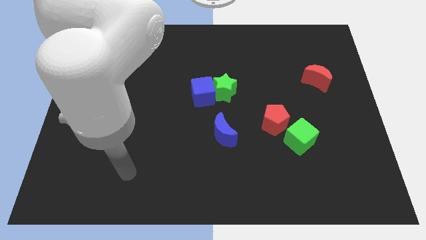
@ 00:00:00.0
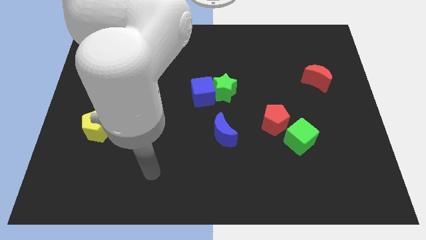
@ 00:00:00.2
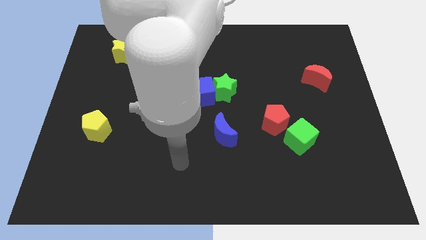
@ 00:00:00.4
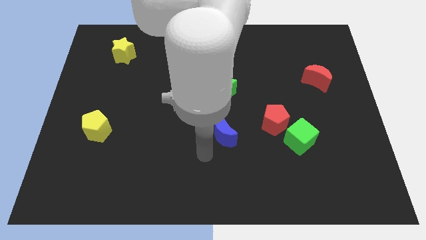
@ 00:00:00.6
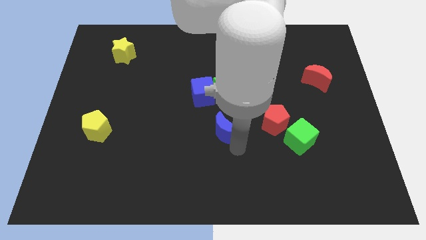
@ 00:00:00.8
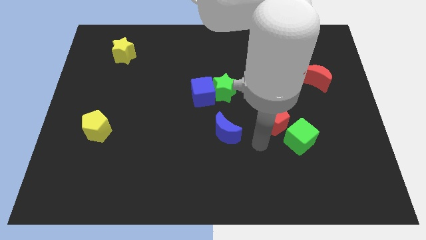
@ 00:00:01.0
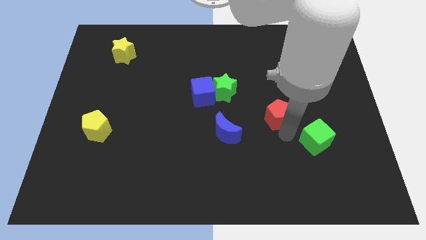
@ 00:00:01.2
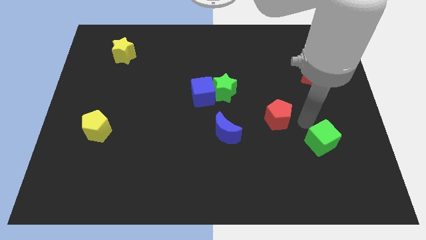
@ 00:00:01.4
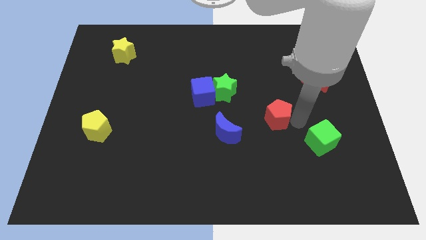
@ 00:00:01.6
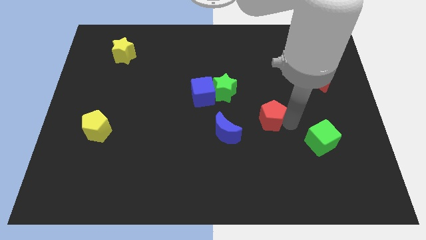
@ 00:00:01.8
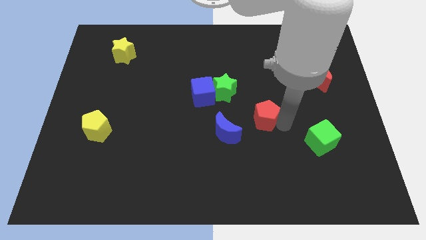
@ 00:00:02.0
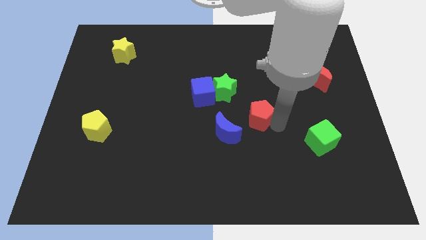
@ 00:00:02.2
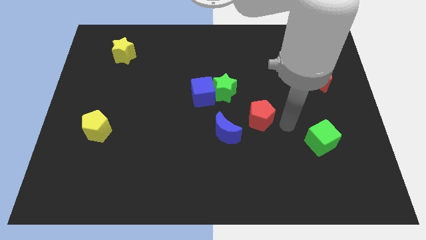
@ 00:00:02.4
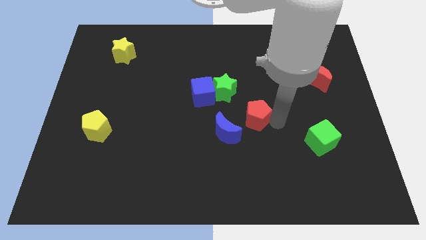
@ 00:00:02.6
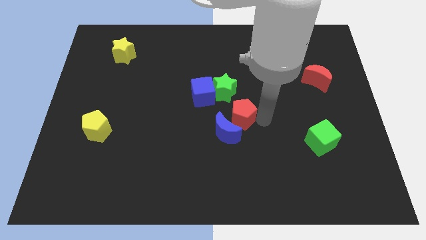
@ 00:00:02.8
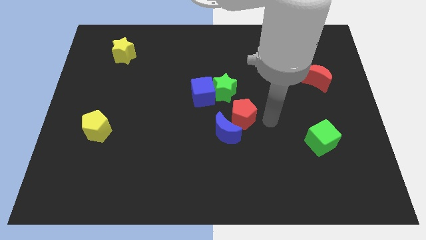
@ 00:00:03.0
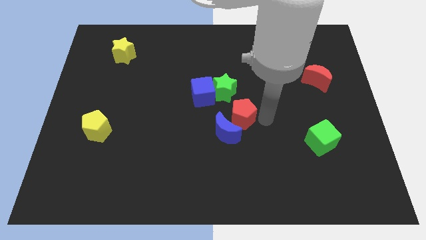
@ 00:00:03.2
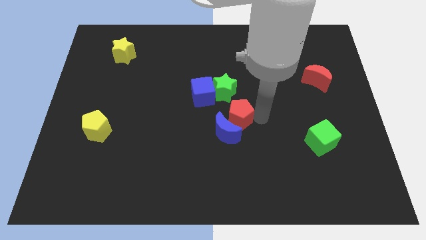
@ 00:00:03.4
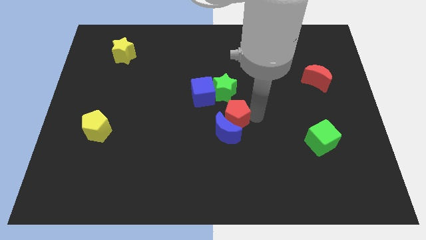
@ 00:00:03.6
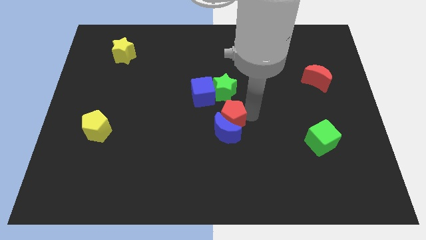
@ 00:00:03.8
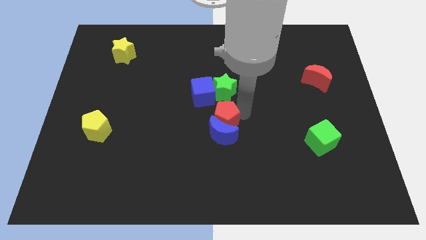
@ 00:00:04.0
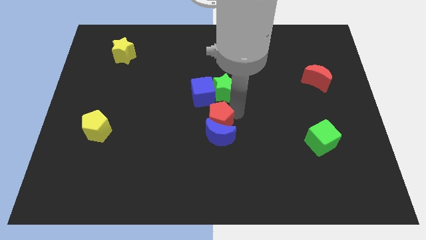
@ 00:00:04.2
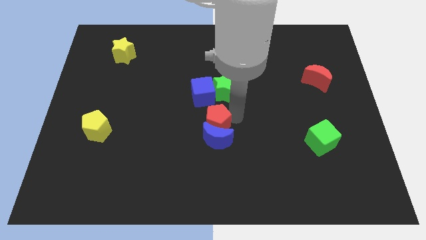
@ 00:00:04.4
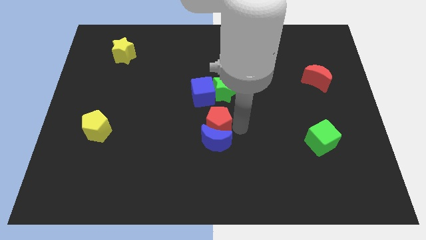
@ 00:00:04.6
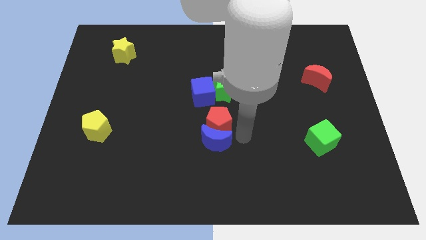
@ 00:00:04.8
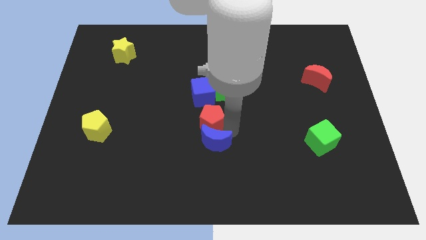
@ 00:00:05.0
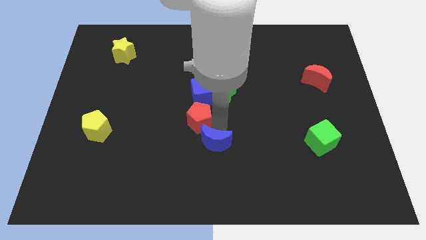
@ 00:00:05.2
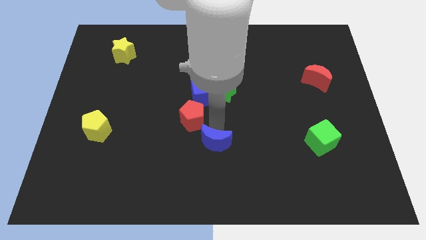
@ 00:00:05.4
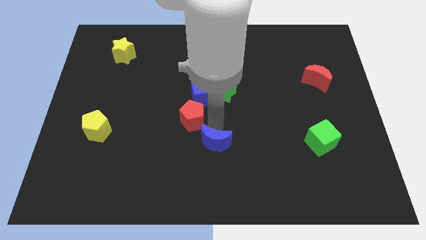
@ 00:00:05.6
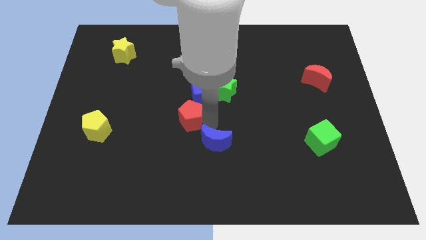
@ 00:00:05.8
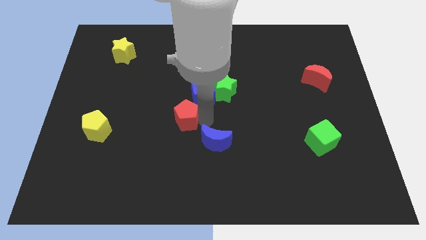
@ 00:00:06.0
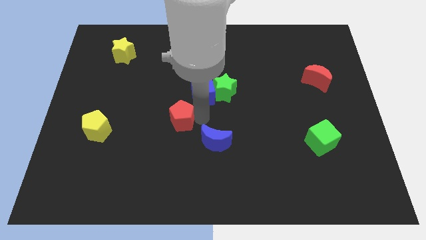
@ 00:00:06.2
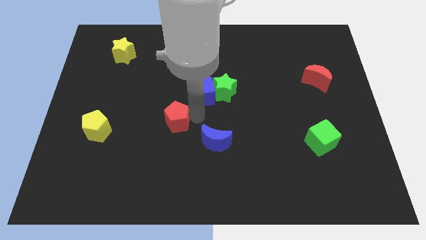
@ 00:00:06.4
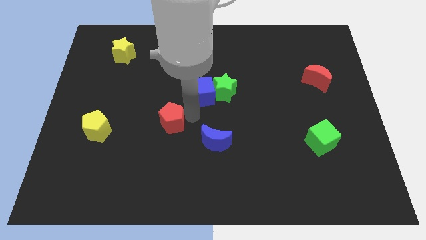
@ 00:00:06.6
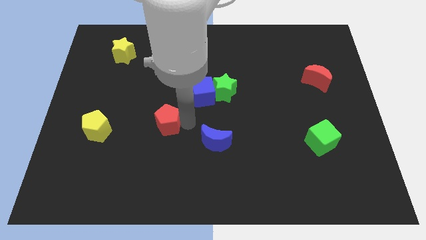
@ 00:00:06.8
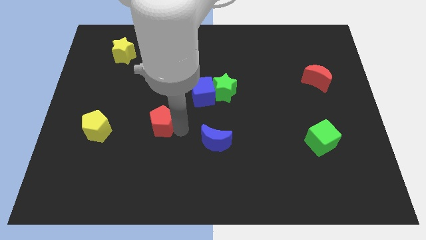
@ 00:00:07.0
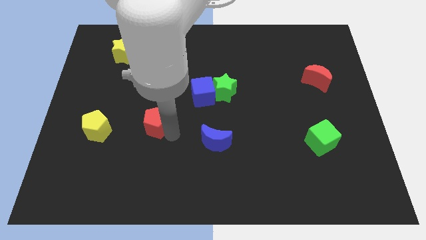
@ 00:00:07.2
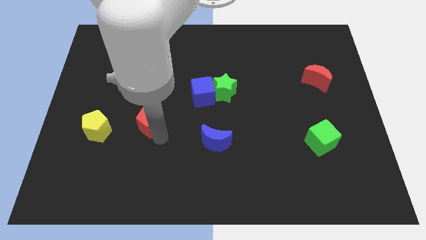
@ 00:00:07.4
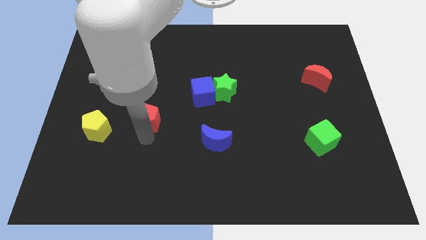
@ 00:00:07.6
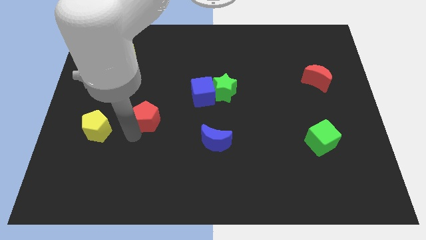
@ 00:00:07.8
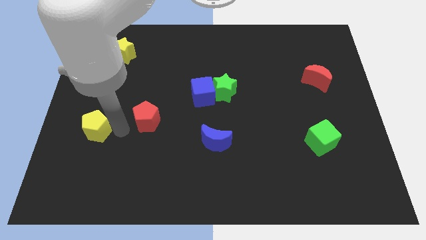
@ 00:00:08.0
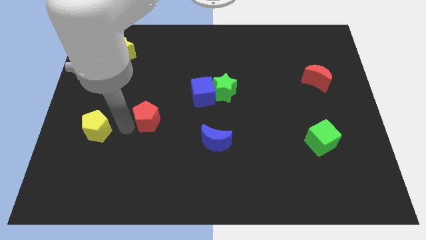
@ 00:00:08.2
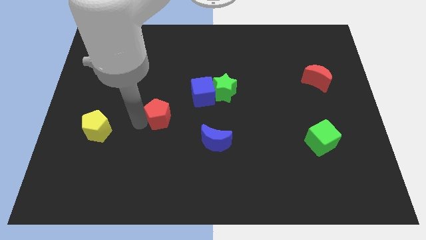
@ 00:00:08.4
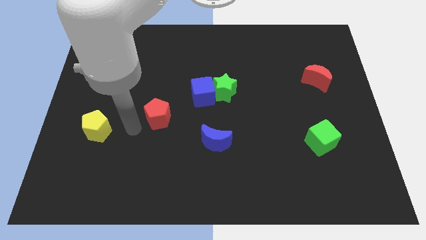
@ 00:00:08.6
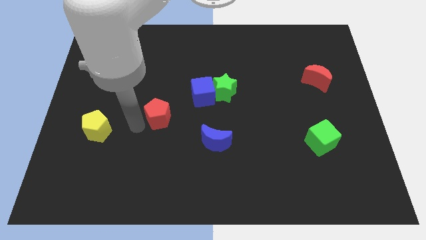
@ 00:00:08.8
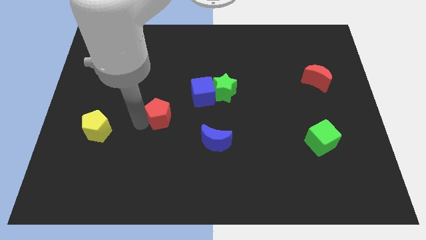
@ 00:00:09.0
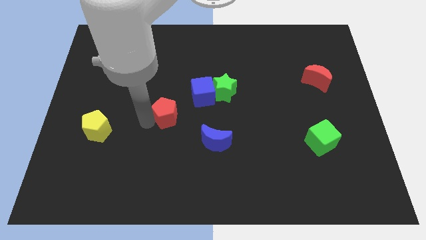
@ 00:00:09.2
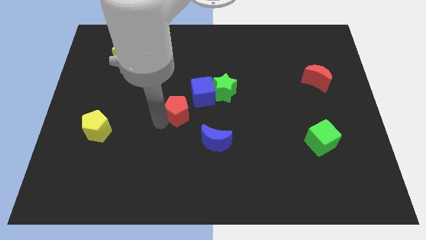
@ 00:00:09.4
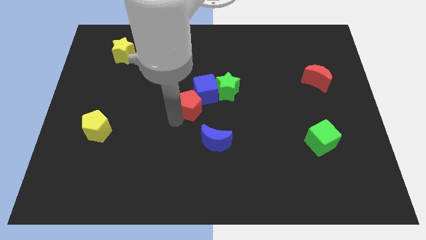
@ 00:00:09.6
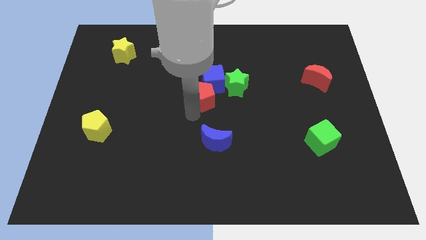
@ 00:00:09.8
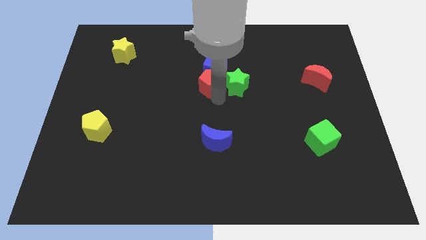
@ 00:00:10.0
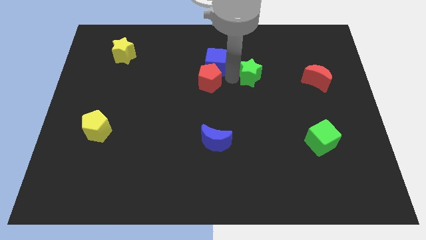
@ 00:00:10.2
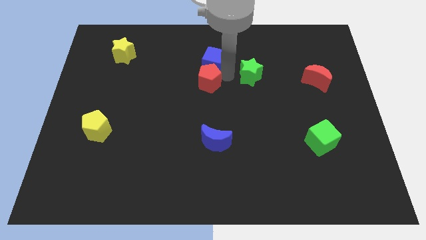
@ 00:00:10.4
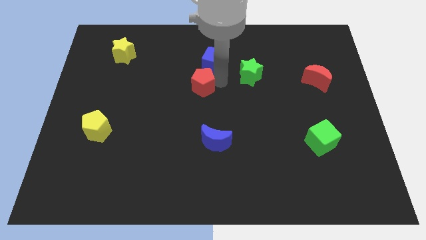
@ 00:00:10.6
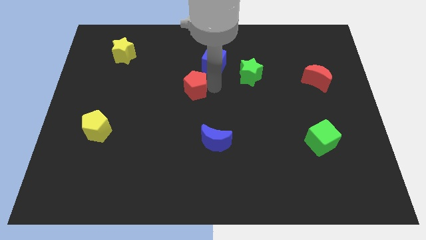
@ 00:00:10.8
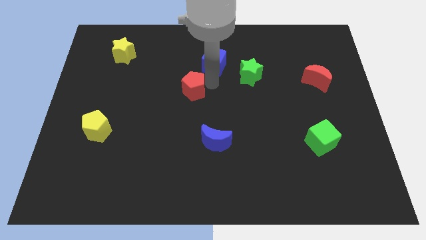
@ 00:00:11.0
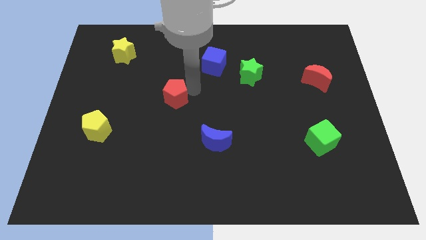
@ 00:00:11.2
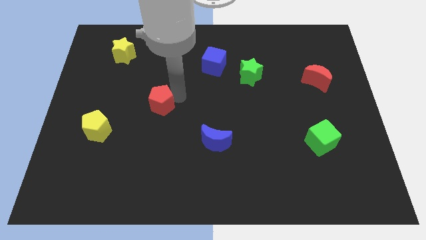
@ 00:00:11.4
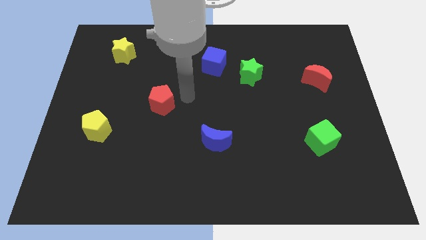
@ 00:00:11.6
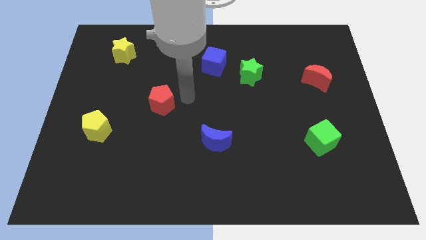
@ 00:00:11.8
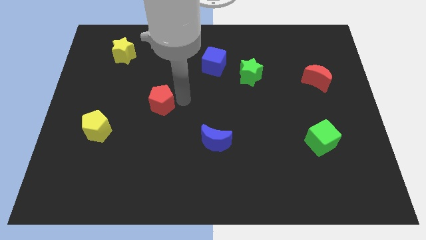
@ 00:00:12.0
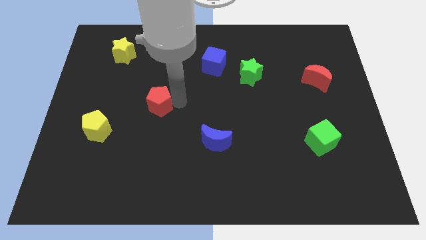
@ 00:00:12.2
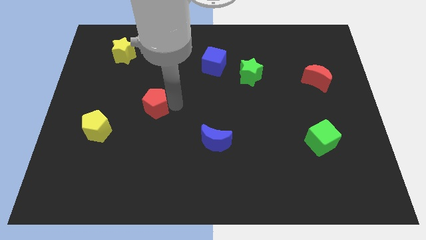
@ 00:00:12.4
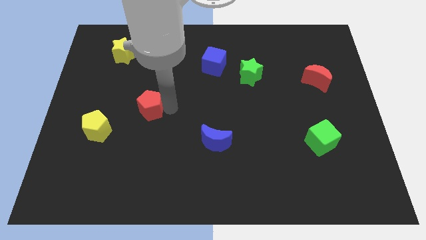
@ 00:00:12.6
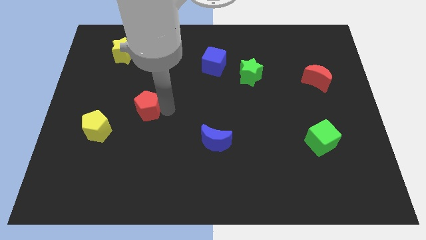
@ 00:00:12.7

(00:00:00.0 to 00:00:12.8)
put the red pentagon diagonally up and to the right of the yellow pentagon
